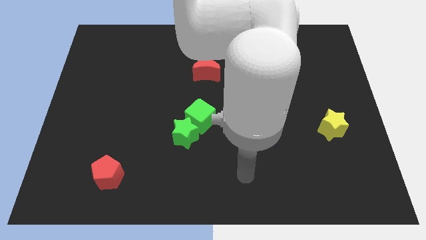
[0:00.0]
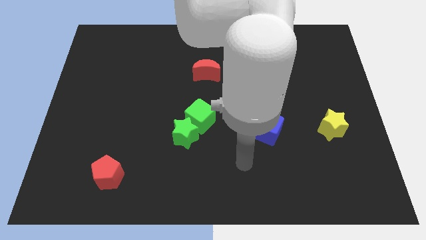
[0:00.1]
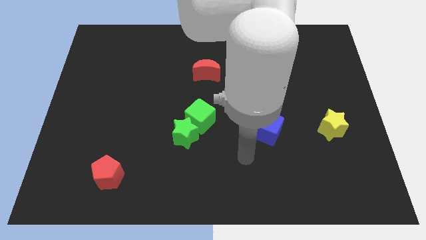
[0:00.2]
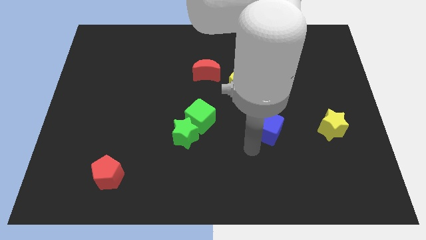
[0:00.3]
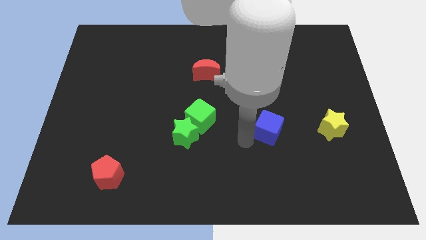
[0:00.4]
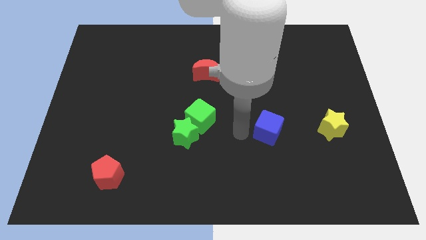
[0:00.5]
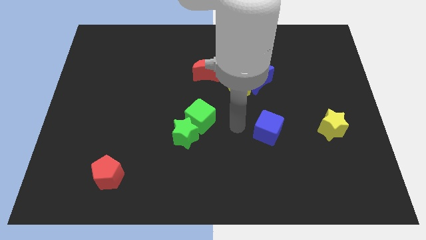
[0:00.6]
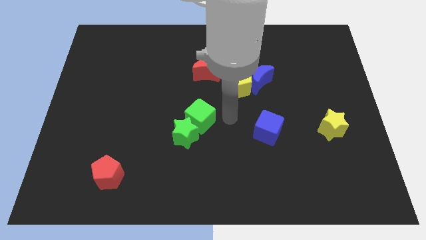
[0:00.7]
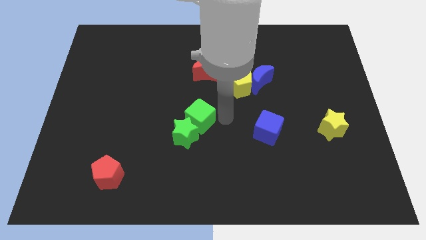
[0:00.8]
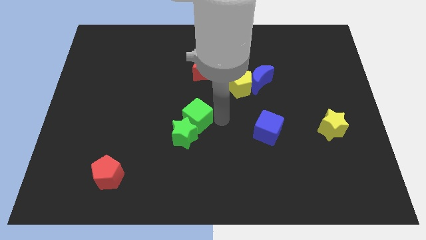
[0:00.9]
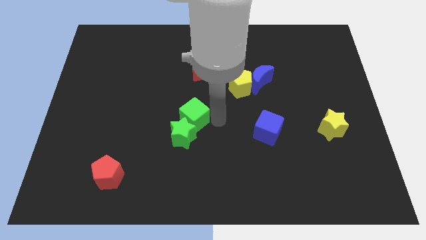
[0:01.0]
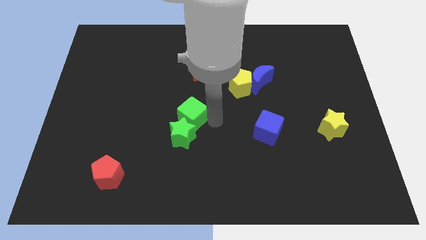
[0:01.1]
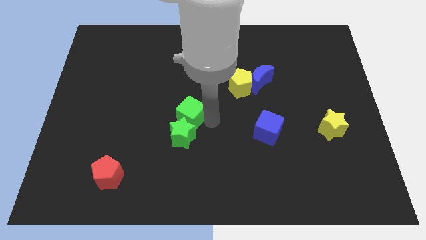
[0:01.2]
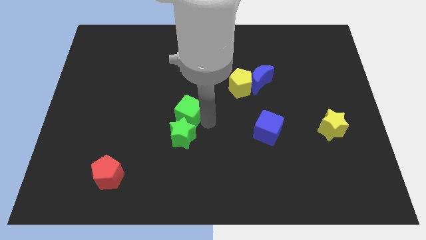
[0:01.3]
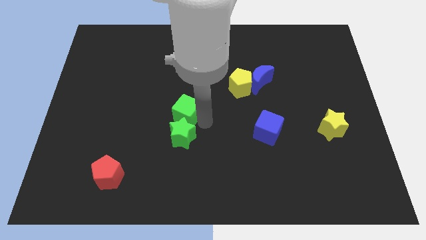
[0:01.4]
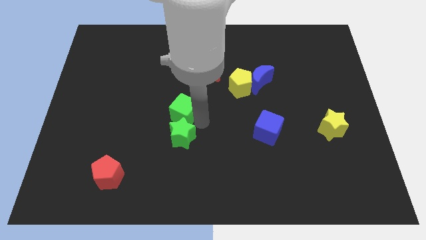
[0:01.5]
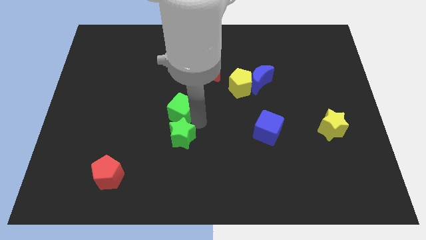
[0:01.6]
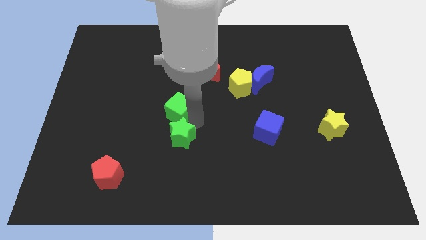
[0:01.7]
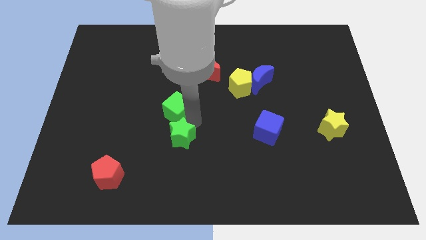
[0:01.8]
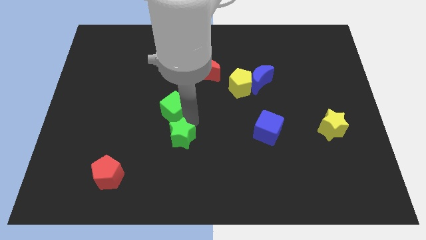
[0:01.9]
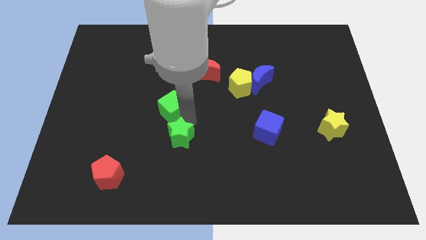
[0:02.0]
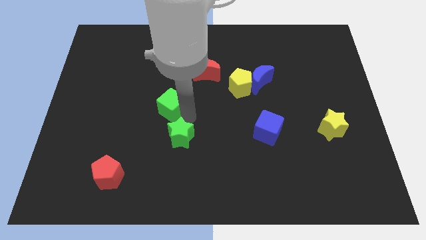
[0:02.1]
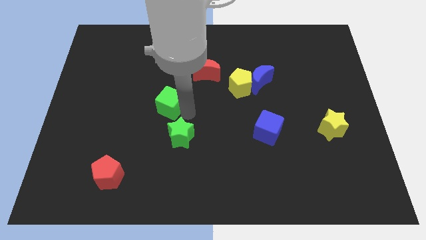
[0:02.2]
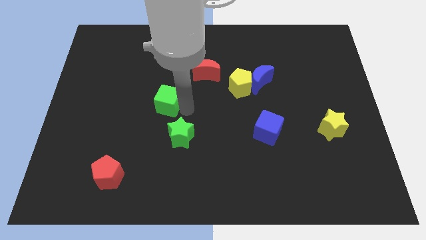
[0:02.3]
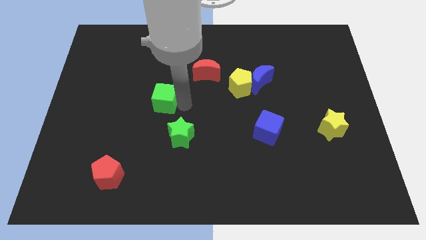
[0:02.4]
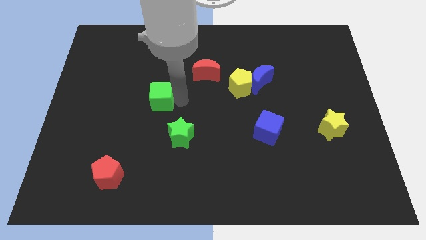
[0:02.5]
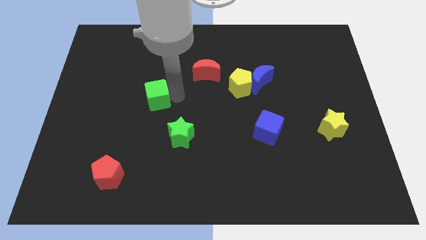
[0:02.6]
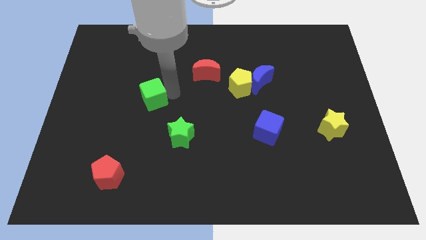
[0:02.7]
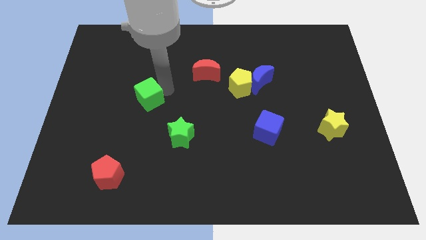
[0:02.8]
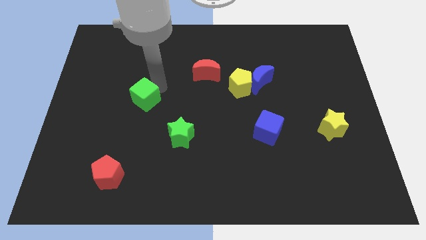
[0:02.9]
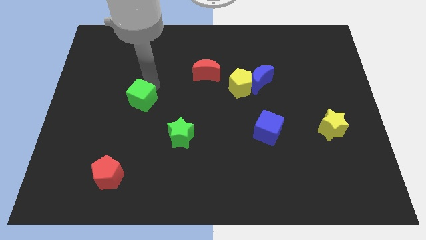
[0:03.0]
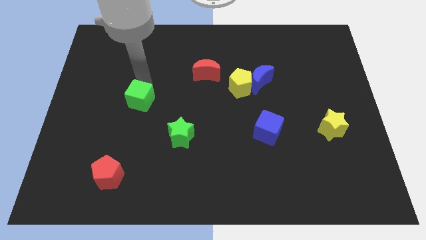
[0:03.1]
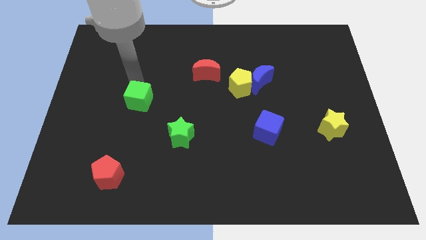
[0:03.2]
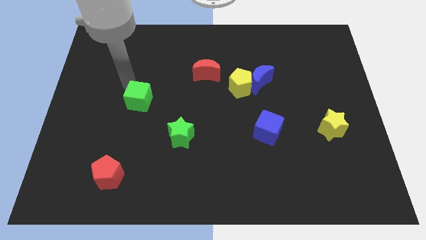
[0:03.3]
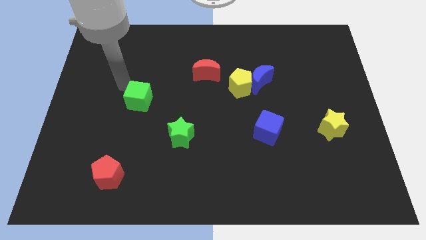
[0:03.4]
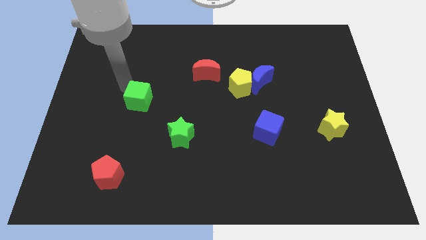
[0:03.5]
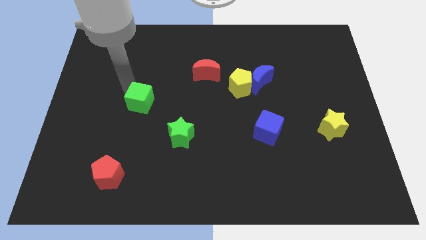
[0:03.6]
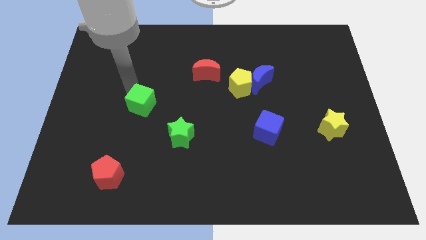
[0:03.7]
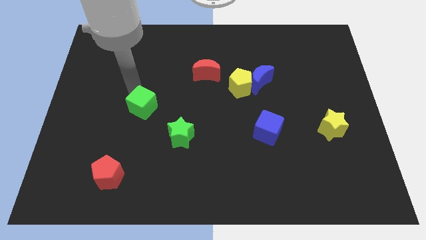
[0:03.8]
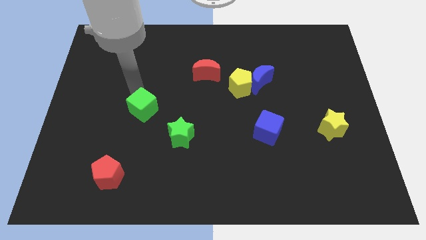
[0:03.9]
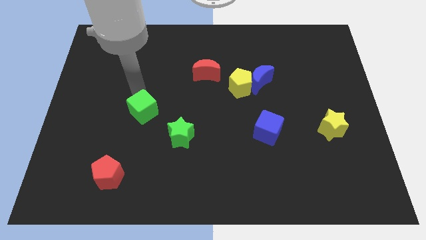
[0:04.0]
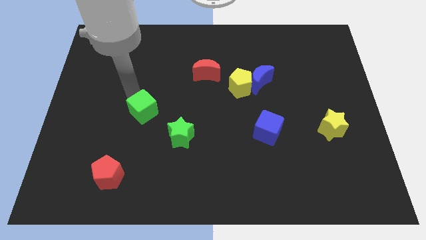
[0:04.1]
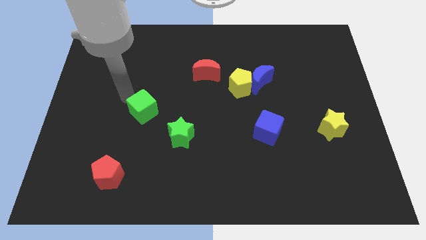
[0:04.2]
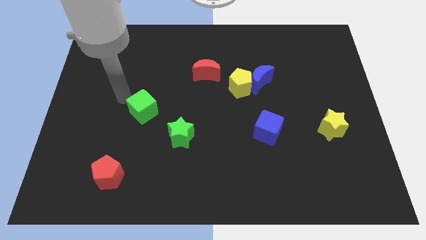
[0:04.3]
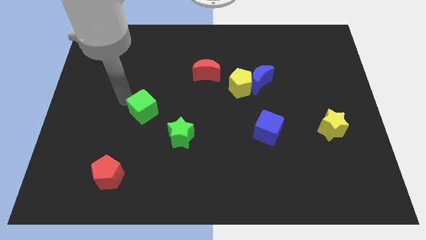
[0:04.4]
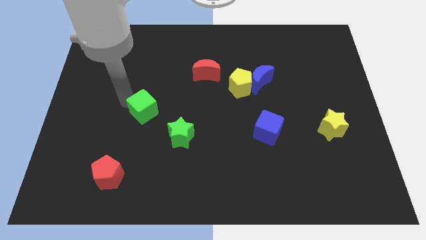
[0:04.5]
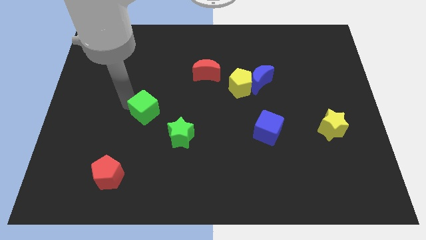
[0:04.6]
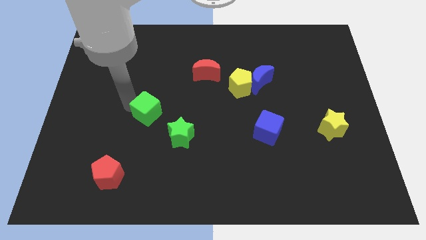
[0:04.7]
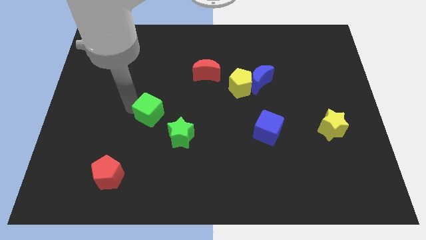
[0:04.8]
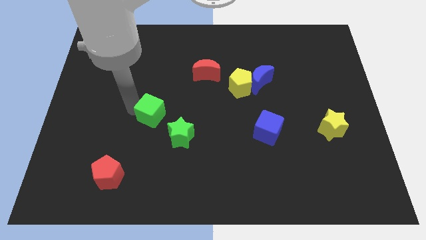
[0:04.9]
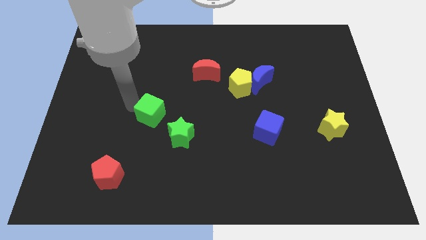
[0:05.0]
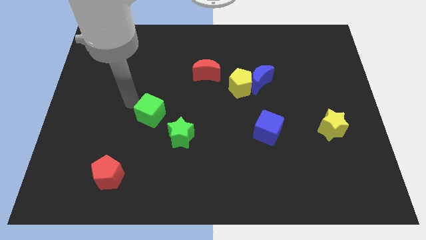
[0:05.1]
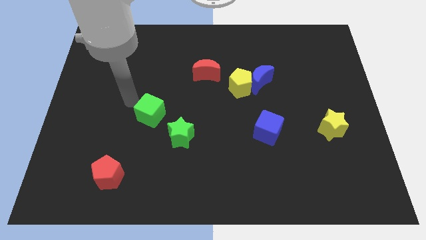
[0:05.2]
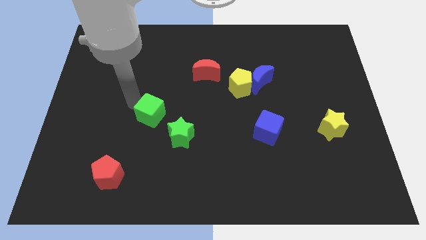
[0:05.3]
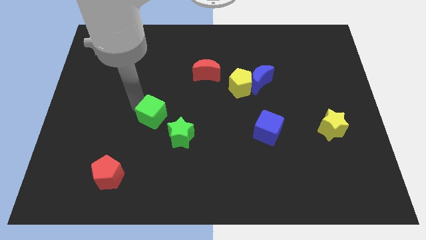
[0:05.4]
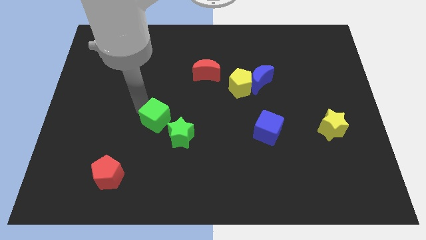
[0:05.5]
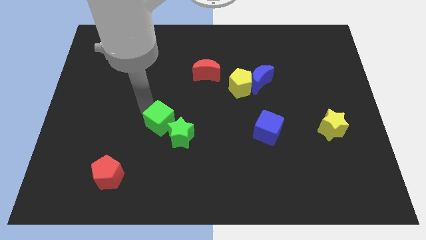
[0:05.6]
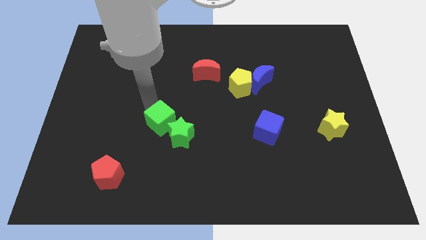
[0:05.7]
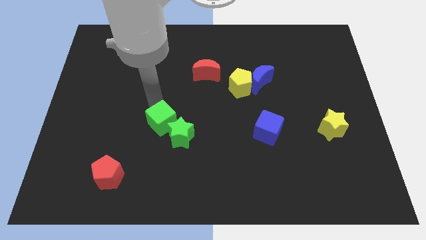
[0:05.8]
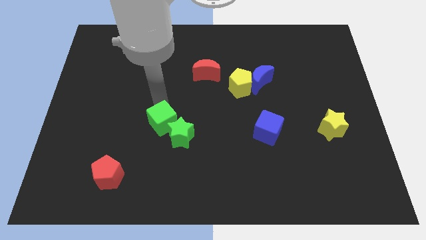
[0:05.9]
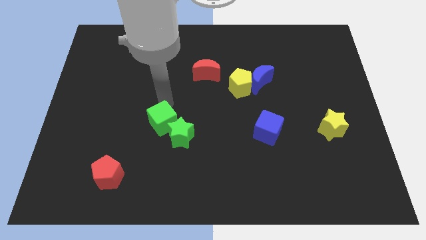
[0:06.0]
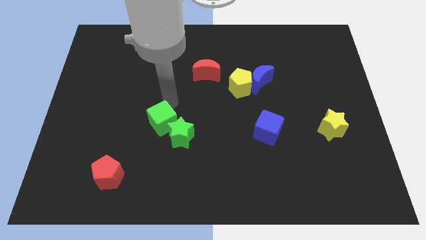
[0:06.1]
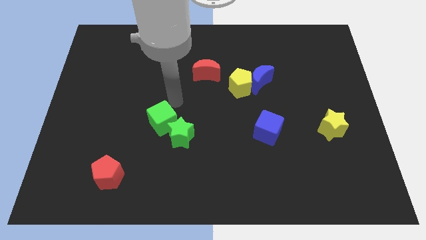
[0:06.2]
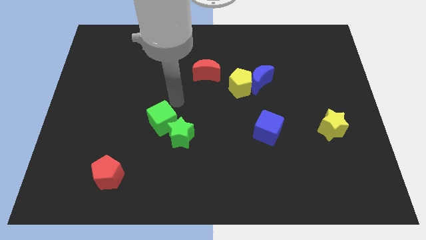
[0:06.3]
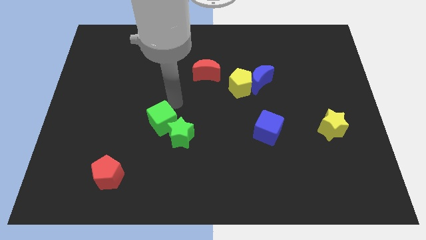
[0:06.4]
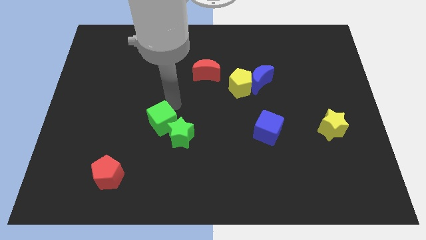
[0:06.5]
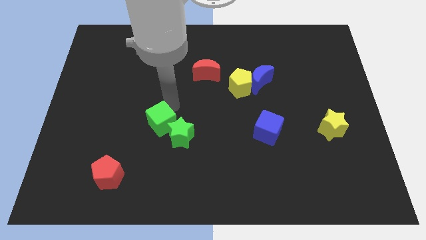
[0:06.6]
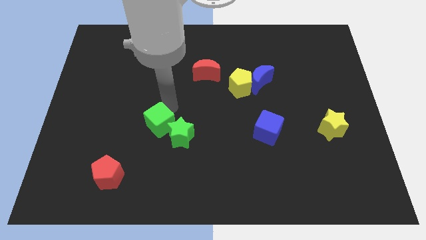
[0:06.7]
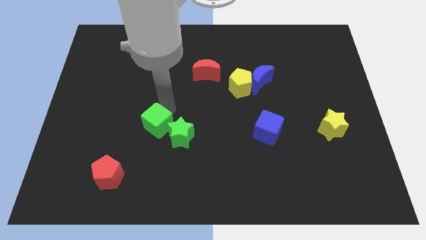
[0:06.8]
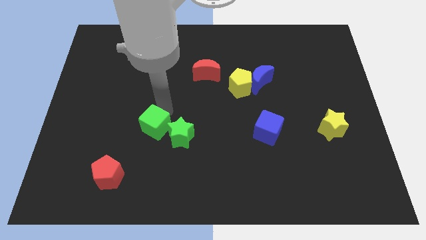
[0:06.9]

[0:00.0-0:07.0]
move the green cube diagonally downwards and left slightly

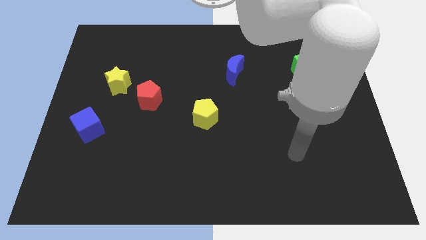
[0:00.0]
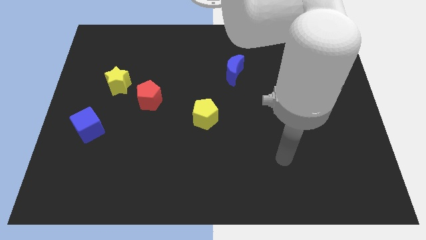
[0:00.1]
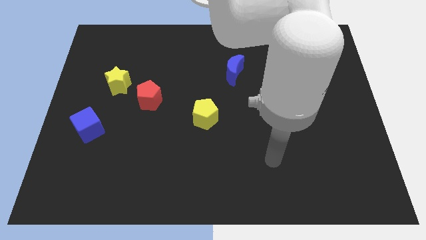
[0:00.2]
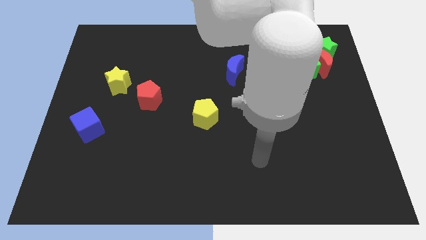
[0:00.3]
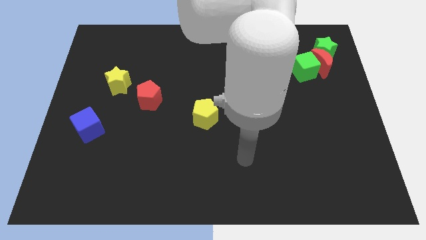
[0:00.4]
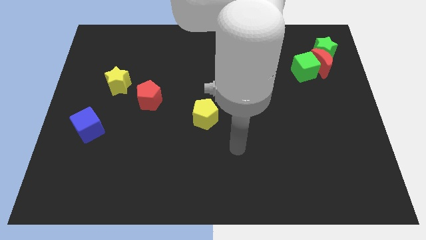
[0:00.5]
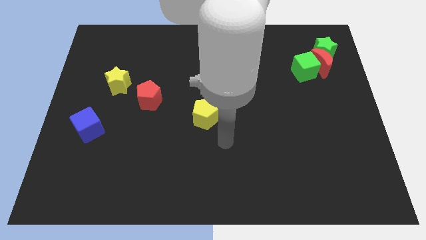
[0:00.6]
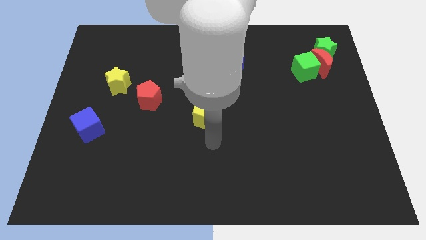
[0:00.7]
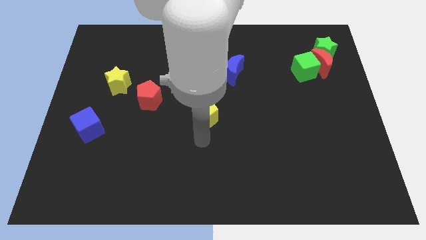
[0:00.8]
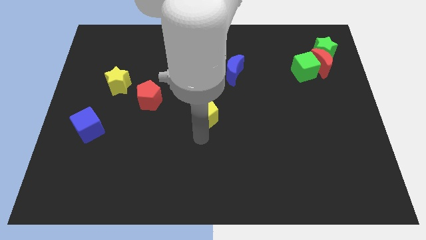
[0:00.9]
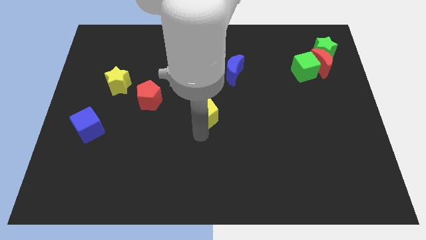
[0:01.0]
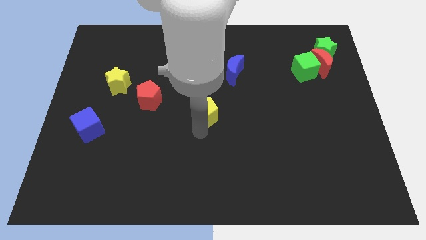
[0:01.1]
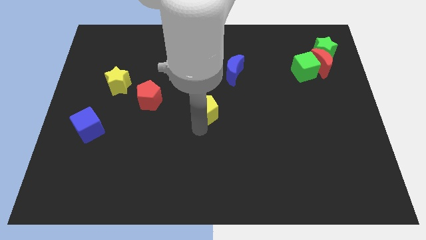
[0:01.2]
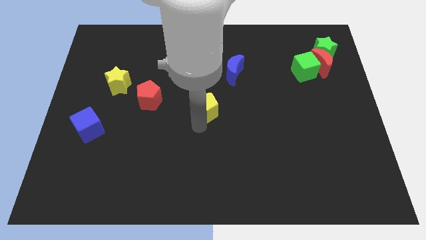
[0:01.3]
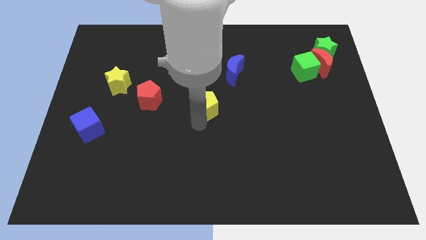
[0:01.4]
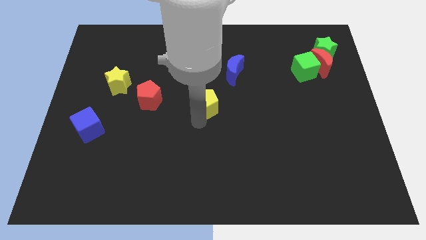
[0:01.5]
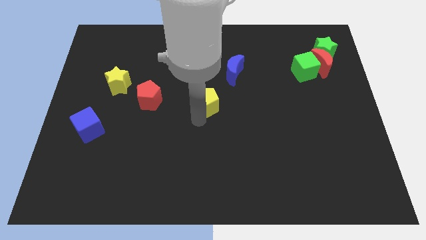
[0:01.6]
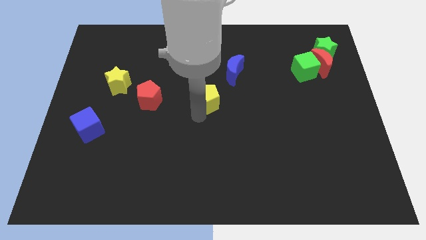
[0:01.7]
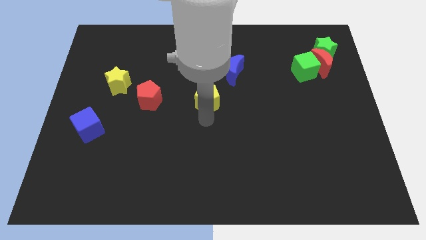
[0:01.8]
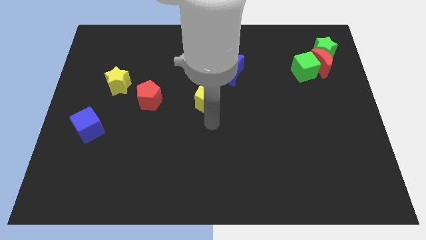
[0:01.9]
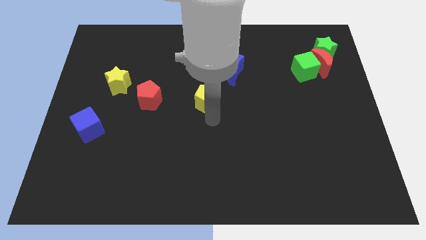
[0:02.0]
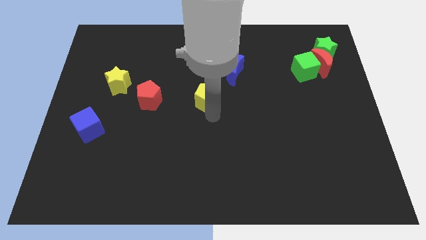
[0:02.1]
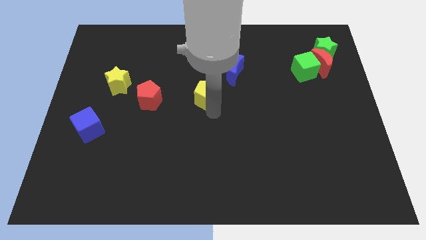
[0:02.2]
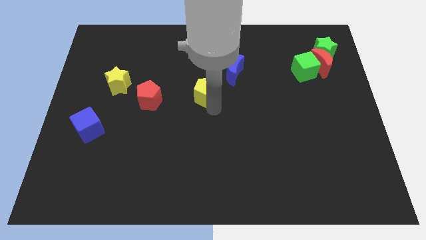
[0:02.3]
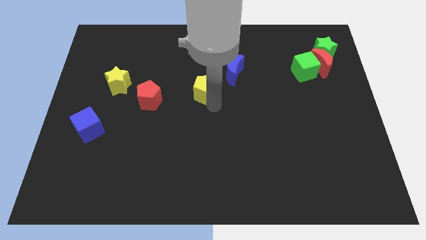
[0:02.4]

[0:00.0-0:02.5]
slightly slide the yellow pentagon up
